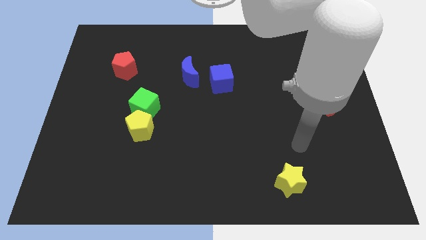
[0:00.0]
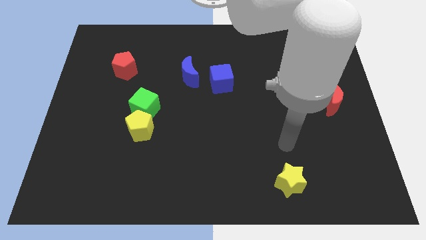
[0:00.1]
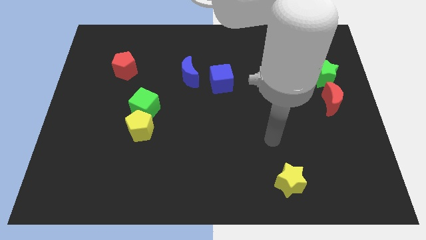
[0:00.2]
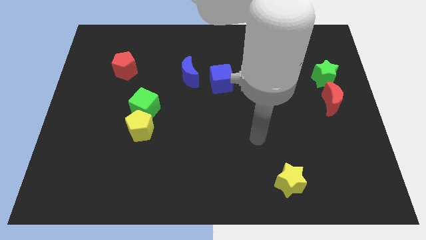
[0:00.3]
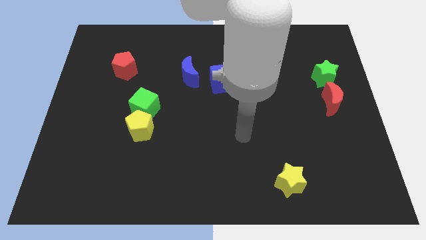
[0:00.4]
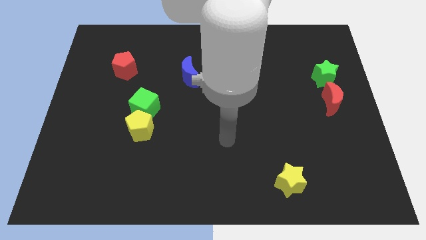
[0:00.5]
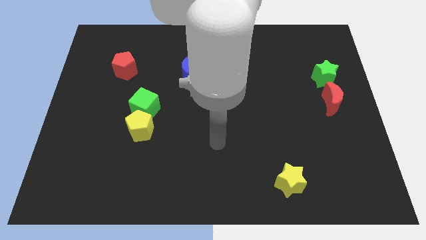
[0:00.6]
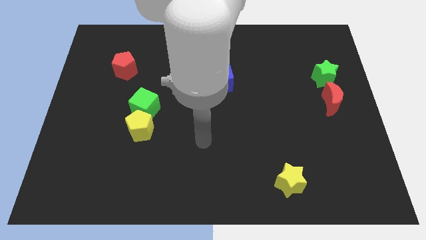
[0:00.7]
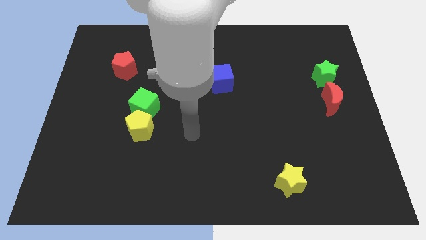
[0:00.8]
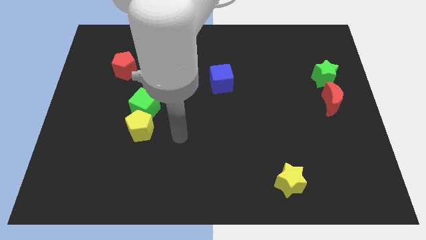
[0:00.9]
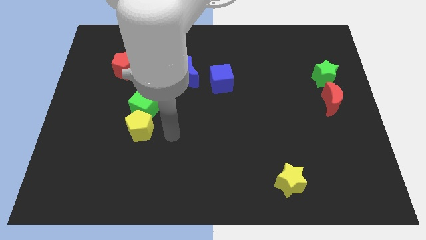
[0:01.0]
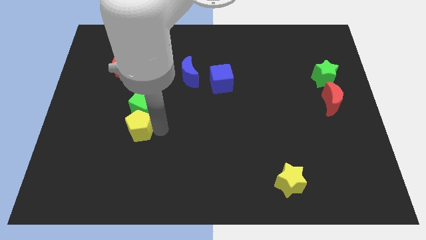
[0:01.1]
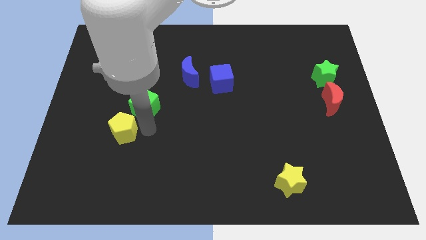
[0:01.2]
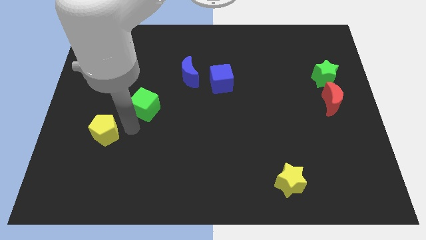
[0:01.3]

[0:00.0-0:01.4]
pull the green cube apart from the yellow pentagon

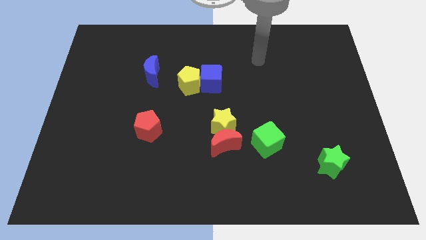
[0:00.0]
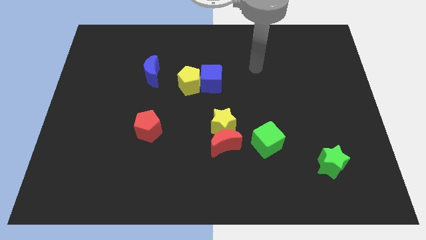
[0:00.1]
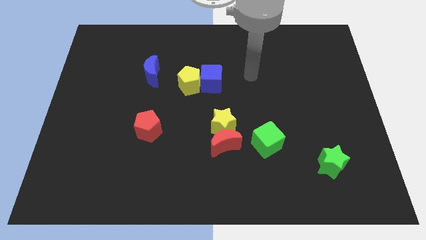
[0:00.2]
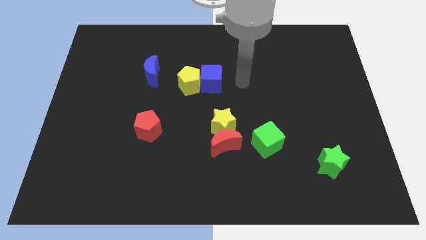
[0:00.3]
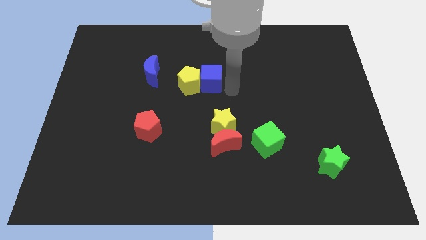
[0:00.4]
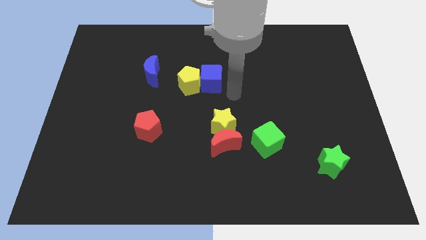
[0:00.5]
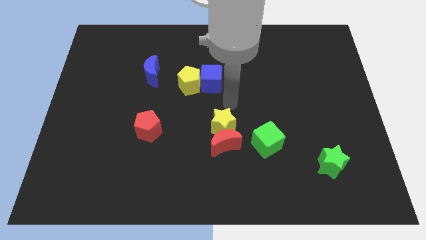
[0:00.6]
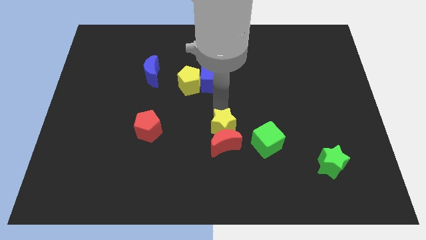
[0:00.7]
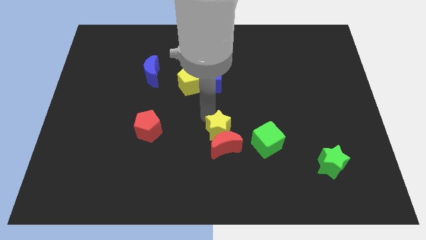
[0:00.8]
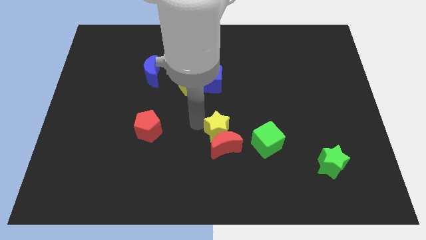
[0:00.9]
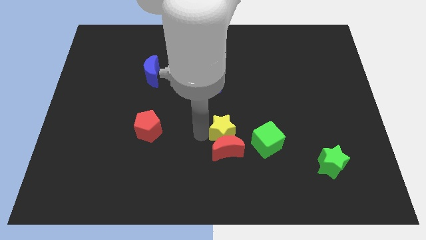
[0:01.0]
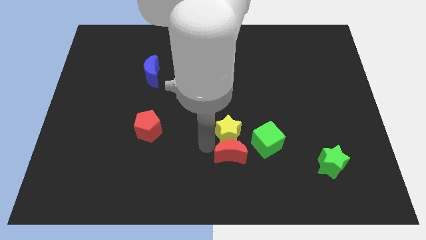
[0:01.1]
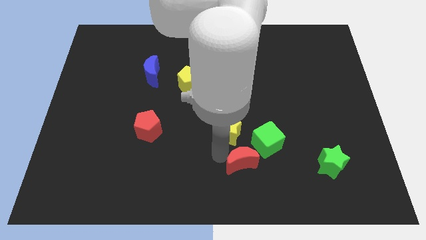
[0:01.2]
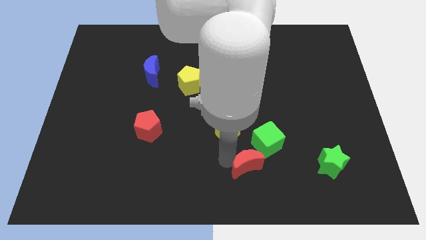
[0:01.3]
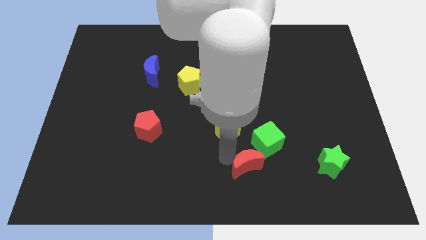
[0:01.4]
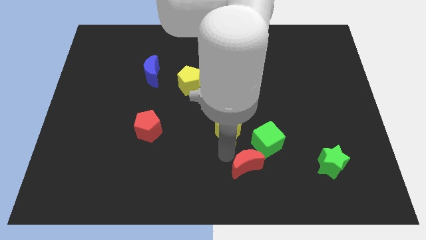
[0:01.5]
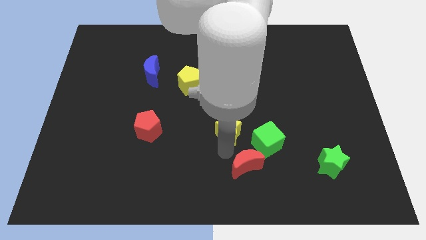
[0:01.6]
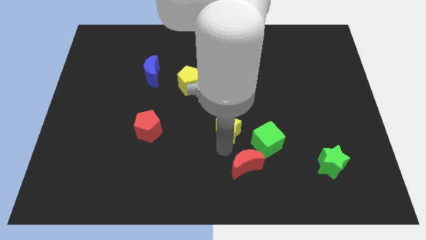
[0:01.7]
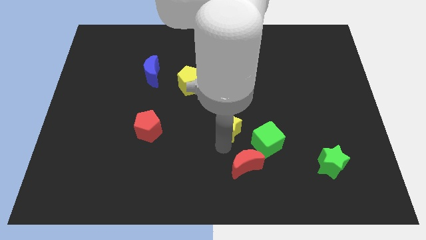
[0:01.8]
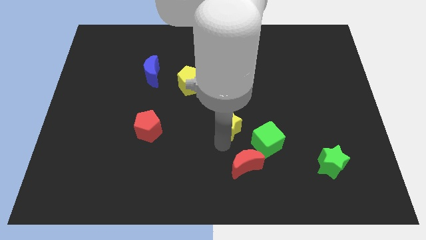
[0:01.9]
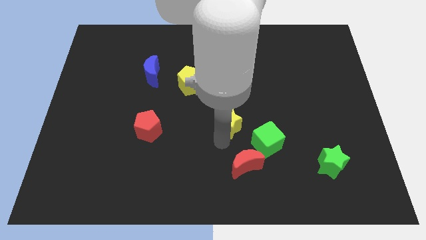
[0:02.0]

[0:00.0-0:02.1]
move the yellow star away from the red moon

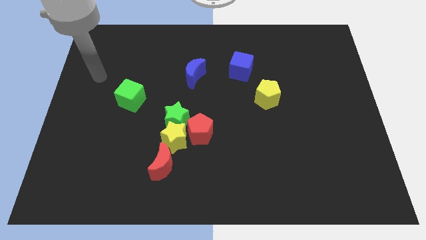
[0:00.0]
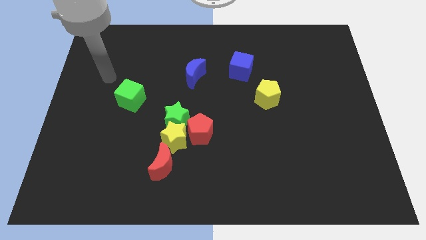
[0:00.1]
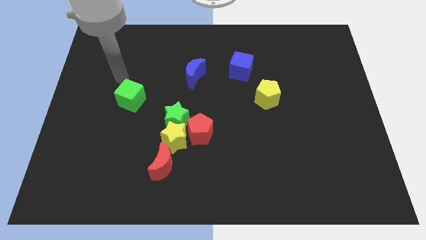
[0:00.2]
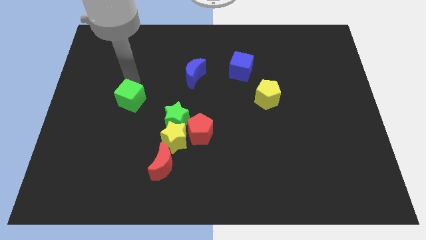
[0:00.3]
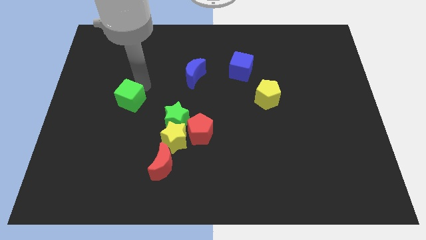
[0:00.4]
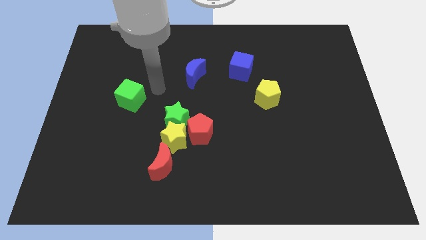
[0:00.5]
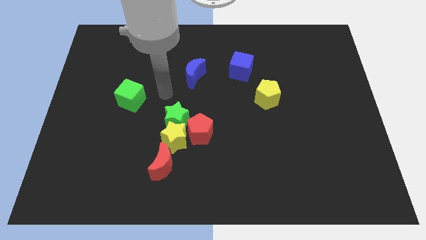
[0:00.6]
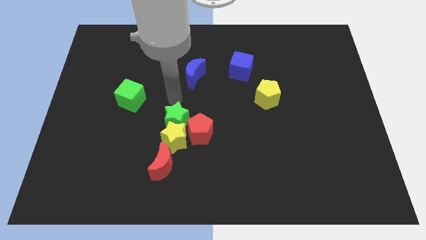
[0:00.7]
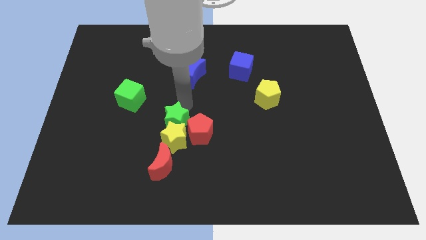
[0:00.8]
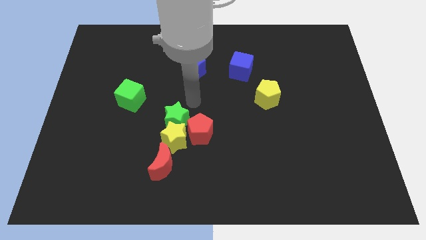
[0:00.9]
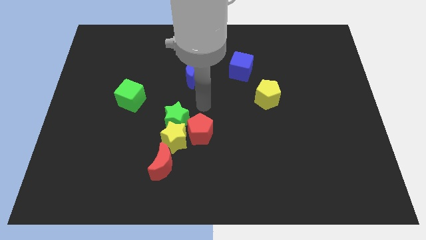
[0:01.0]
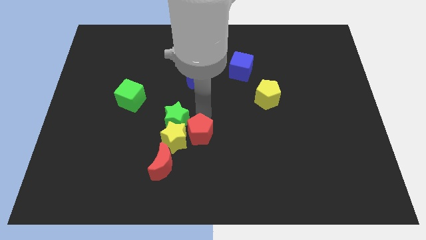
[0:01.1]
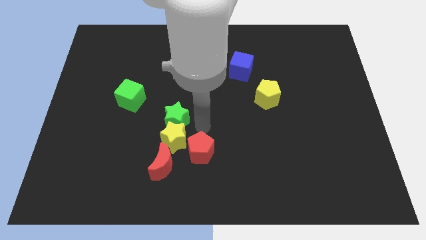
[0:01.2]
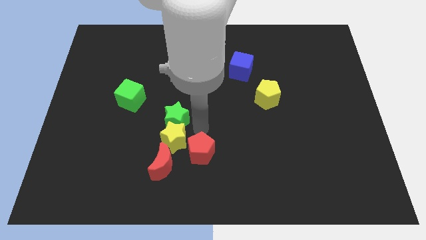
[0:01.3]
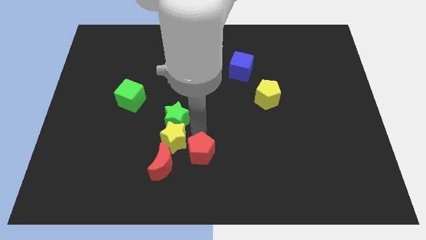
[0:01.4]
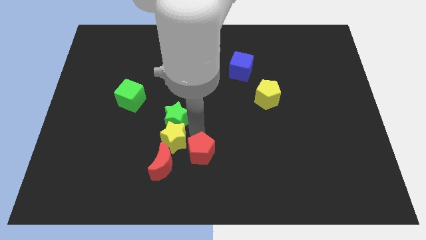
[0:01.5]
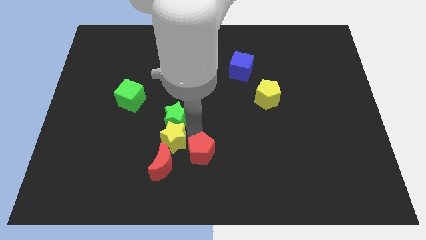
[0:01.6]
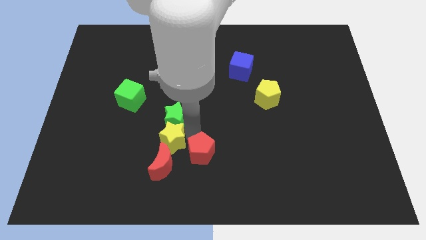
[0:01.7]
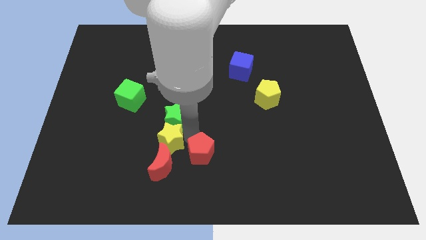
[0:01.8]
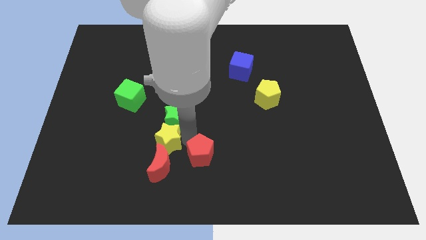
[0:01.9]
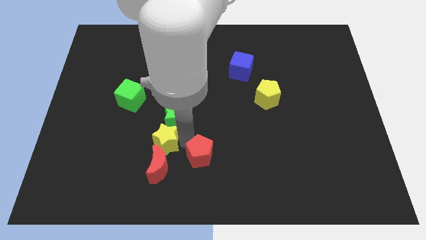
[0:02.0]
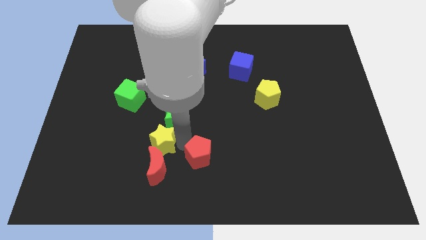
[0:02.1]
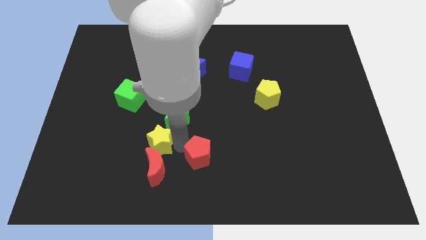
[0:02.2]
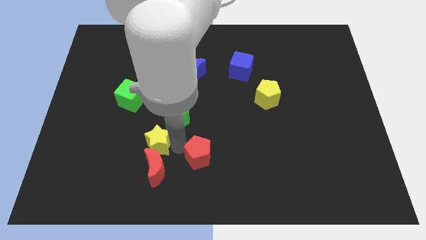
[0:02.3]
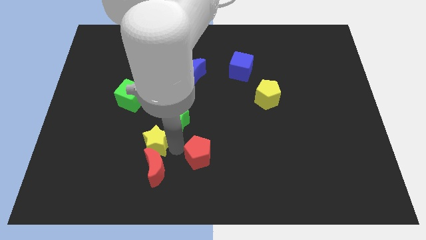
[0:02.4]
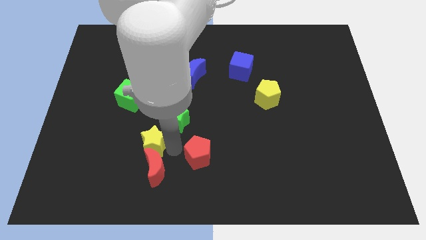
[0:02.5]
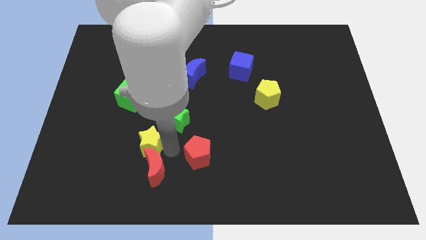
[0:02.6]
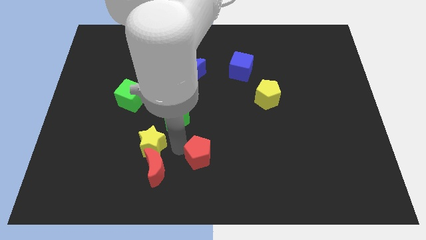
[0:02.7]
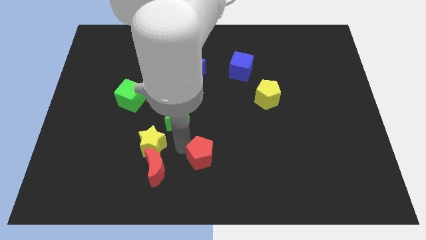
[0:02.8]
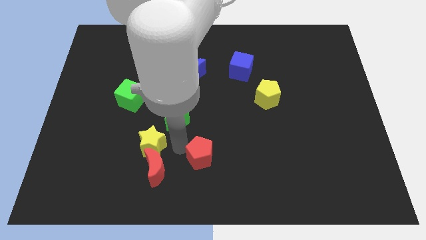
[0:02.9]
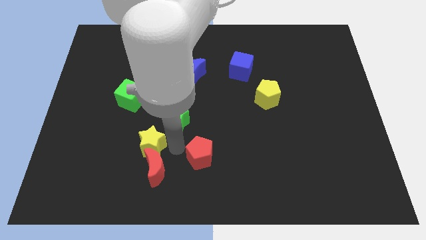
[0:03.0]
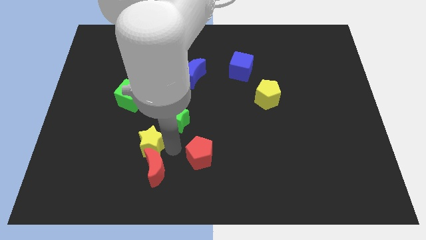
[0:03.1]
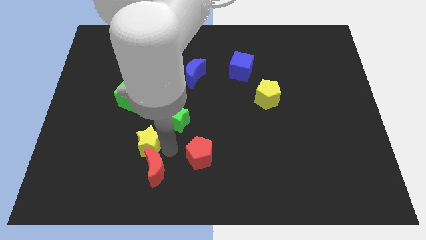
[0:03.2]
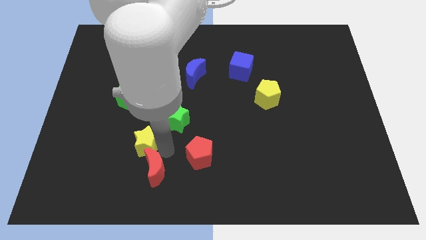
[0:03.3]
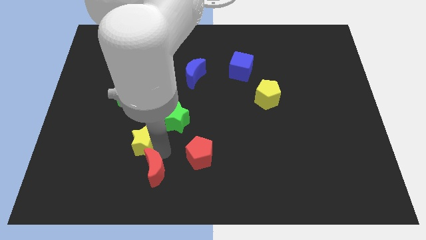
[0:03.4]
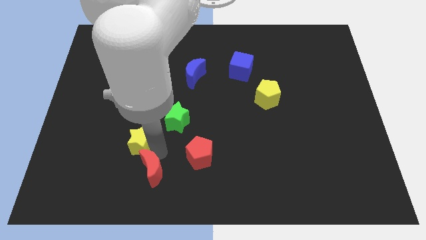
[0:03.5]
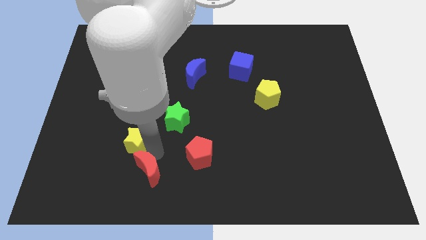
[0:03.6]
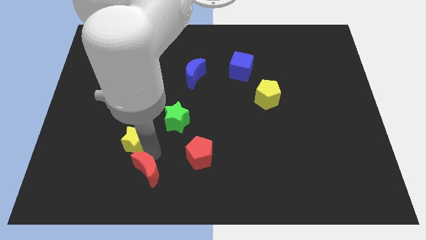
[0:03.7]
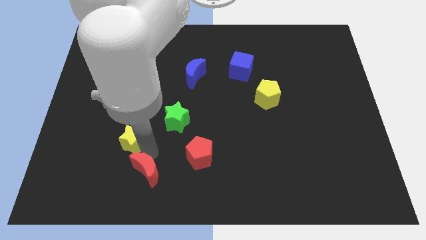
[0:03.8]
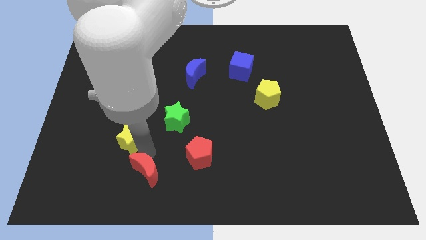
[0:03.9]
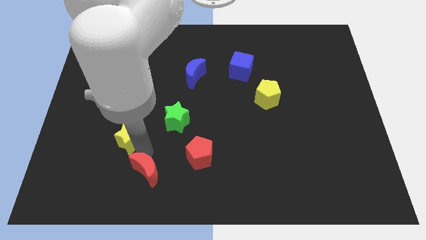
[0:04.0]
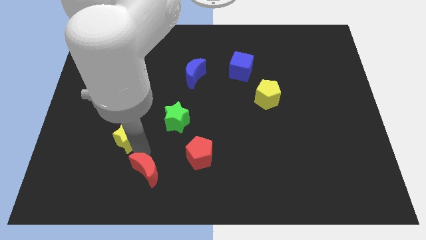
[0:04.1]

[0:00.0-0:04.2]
move the yellow star away from the group

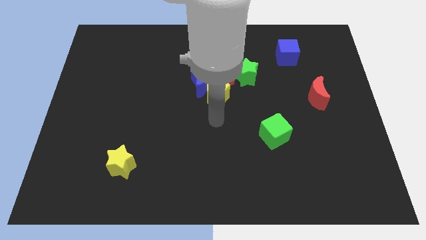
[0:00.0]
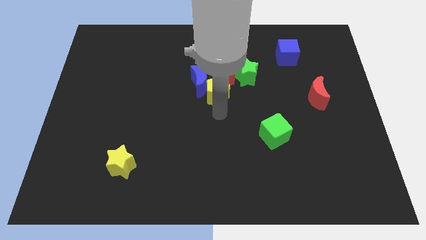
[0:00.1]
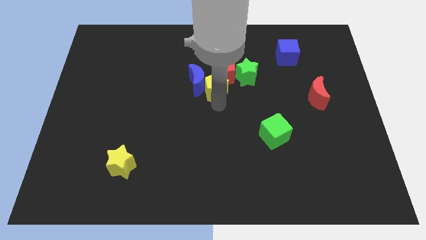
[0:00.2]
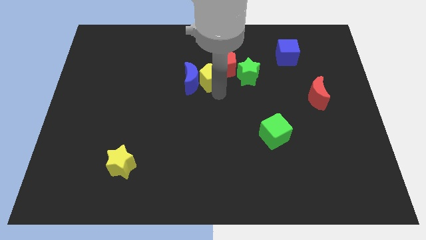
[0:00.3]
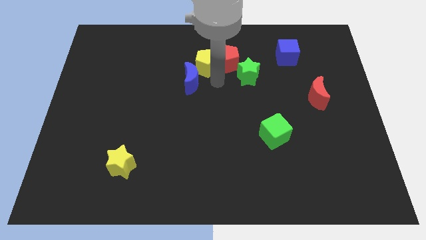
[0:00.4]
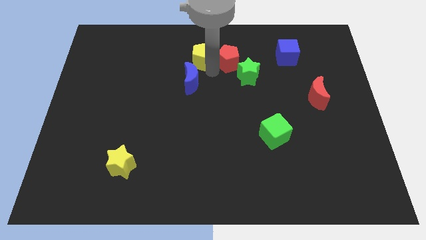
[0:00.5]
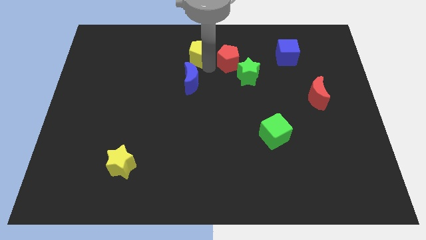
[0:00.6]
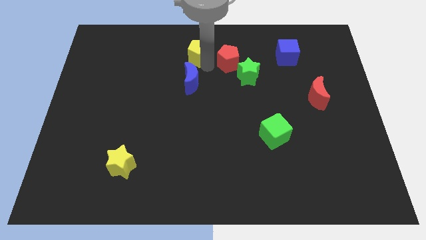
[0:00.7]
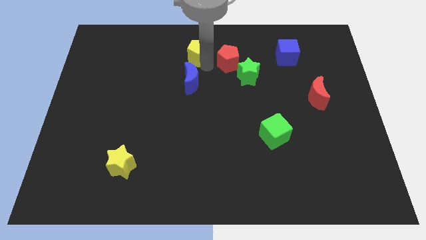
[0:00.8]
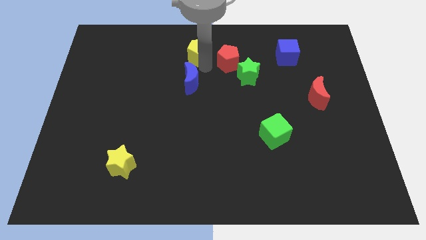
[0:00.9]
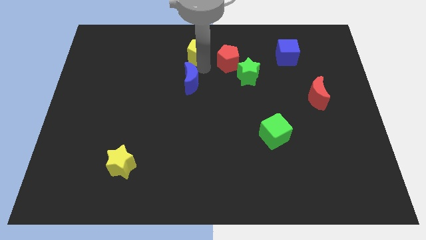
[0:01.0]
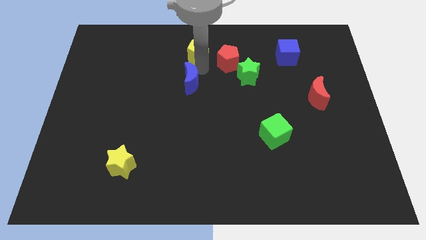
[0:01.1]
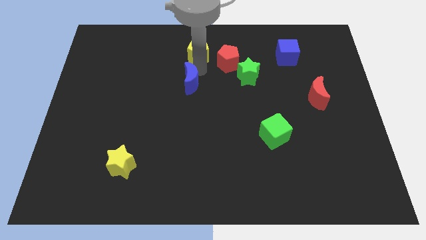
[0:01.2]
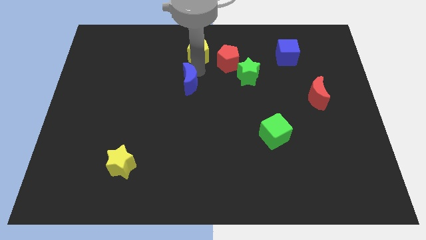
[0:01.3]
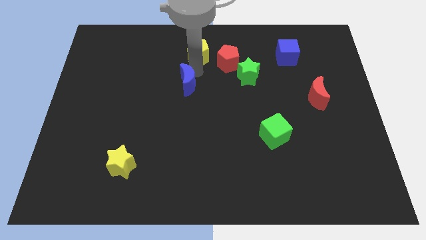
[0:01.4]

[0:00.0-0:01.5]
move the blue moon away from the yellow pentagon and red pentagon
